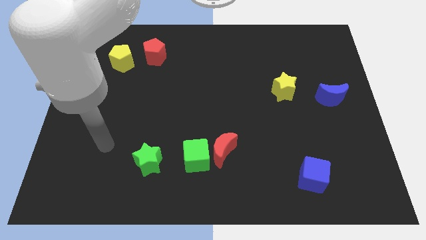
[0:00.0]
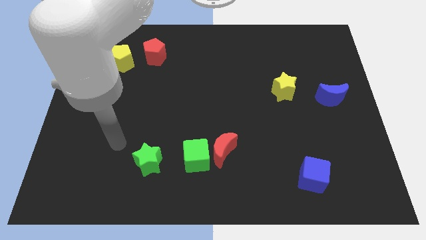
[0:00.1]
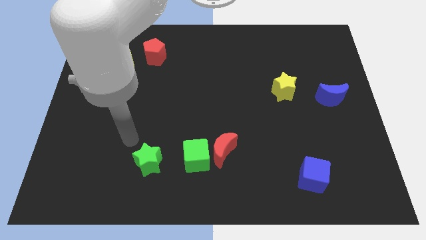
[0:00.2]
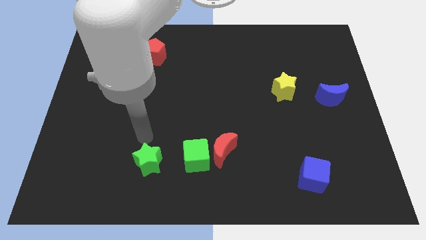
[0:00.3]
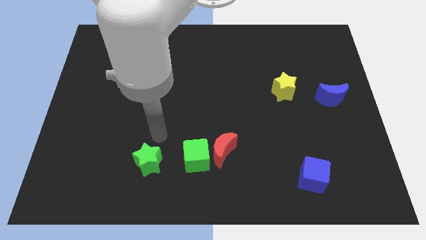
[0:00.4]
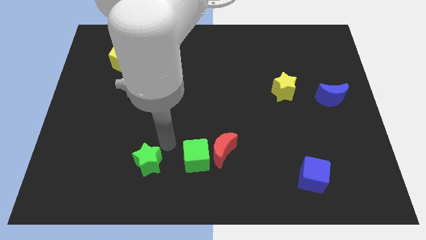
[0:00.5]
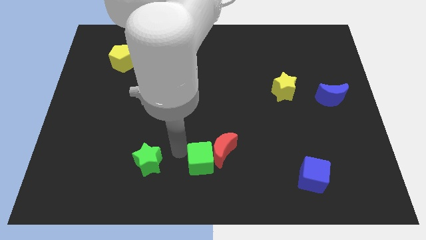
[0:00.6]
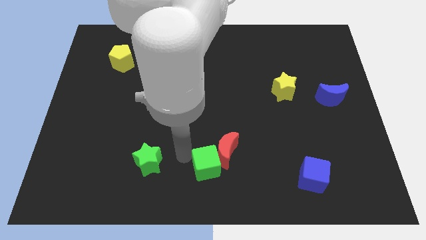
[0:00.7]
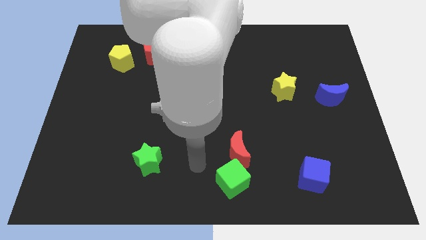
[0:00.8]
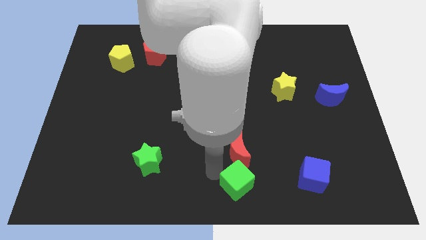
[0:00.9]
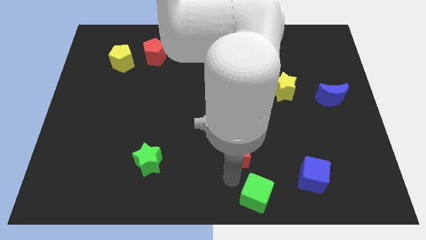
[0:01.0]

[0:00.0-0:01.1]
pull the red moon apart from the green cube

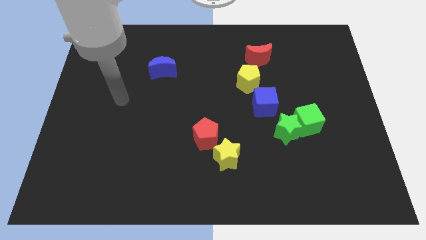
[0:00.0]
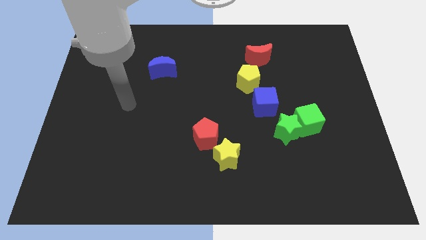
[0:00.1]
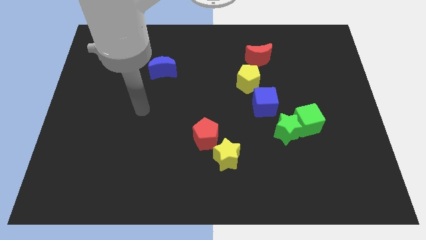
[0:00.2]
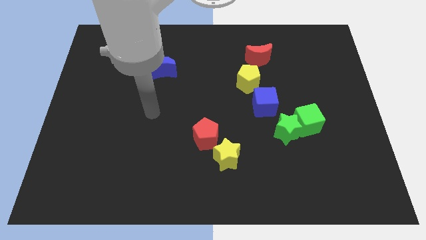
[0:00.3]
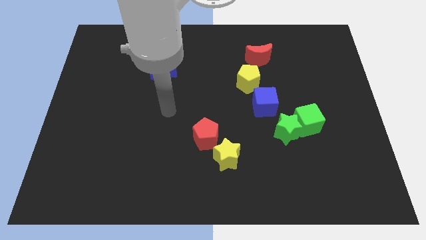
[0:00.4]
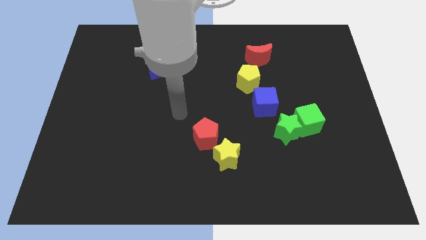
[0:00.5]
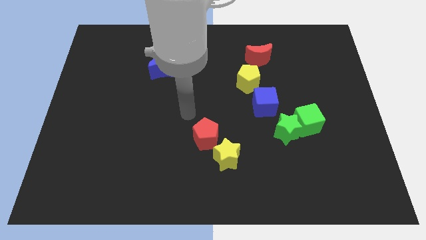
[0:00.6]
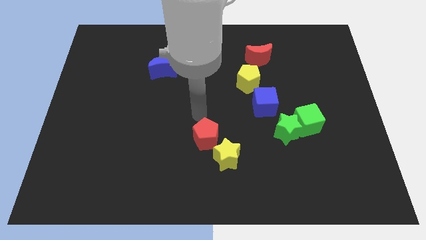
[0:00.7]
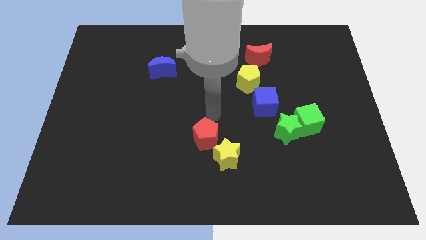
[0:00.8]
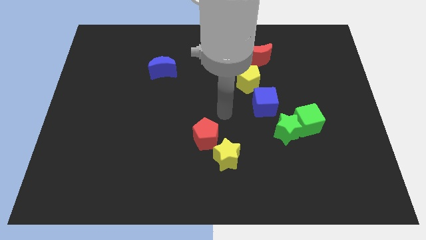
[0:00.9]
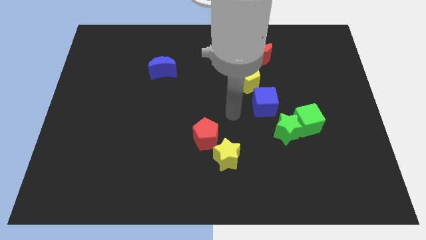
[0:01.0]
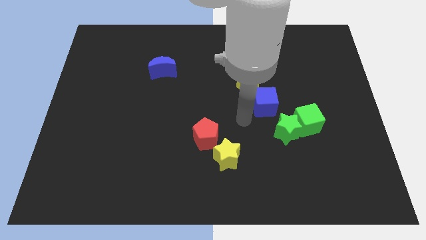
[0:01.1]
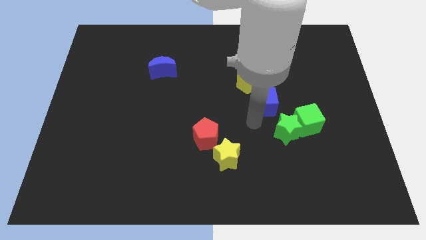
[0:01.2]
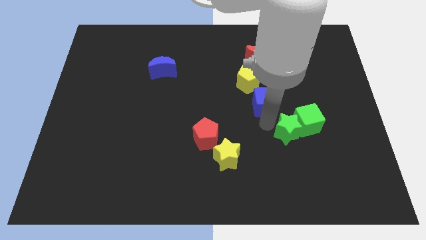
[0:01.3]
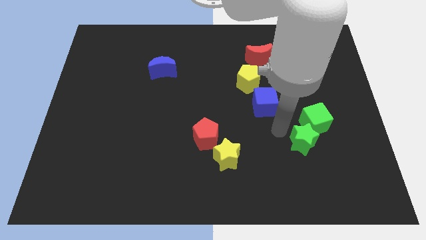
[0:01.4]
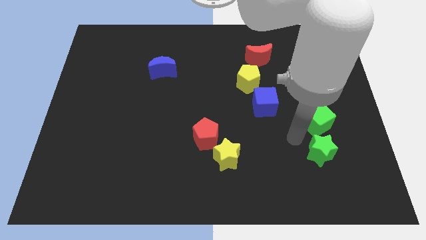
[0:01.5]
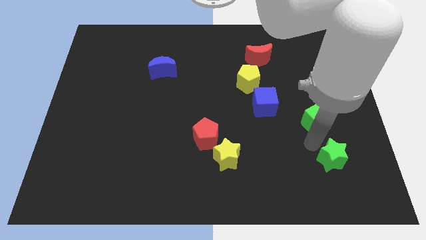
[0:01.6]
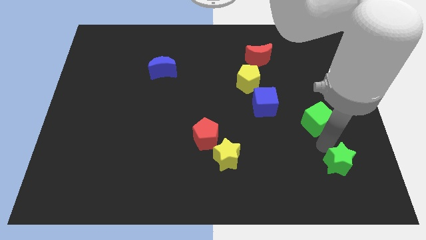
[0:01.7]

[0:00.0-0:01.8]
separate the green cube from the green star

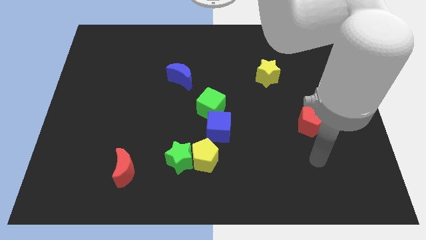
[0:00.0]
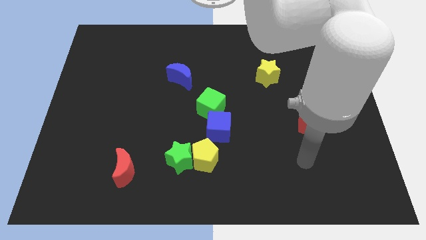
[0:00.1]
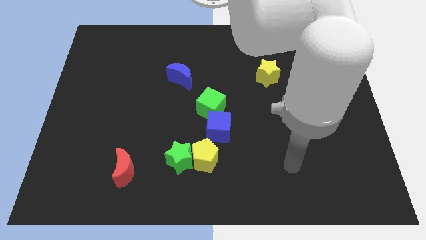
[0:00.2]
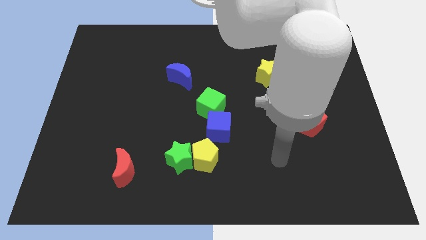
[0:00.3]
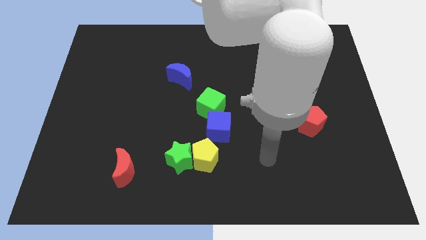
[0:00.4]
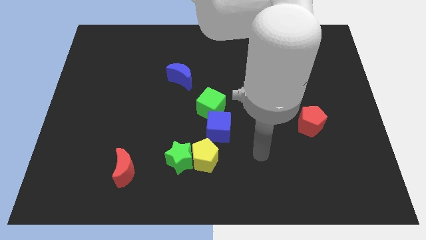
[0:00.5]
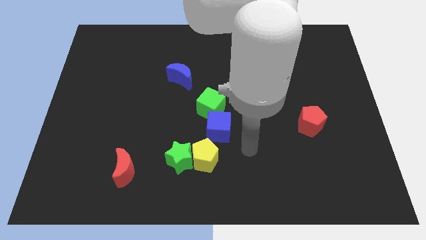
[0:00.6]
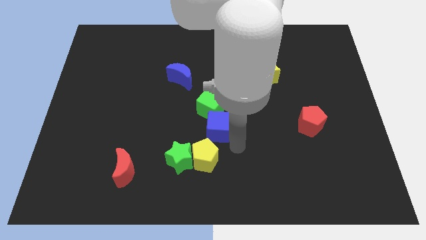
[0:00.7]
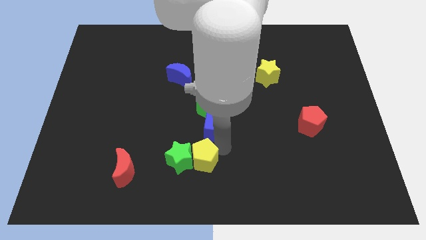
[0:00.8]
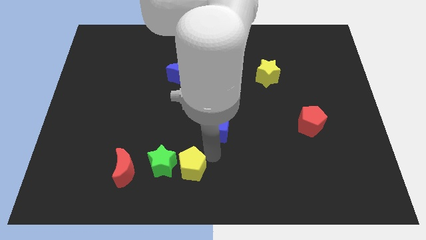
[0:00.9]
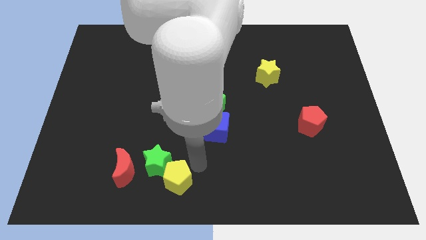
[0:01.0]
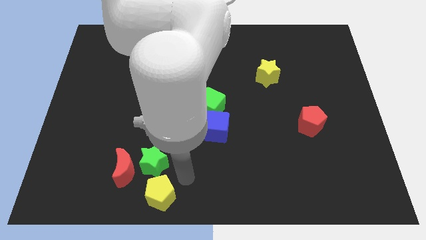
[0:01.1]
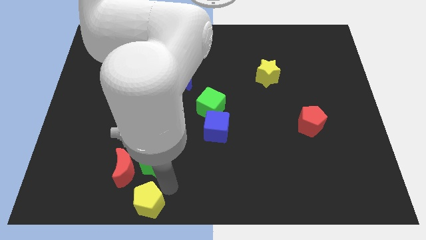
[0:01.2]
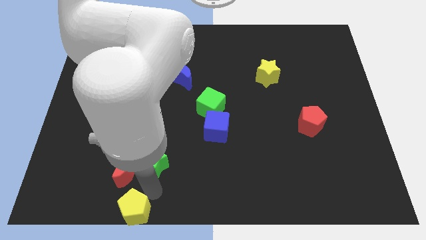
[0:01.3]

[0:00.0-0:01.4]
pull the green star apart from the yellow pentagon

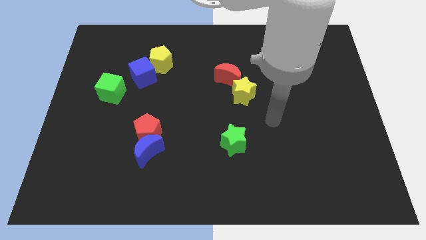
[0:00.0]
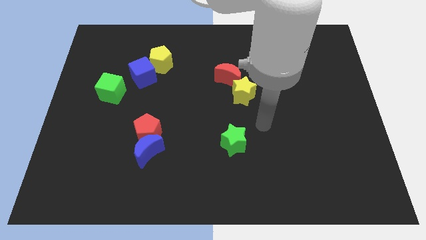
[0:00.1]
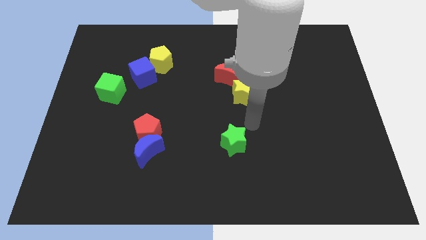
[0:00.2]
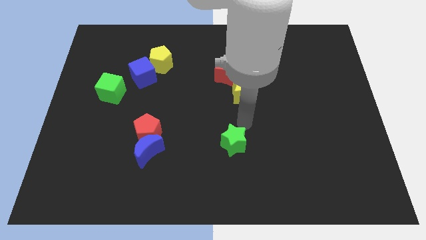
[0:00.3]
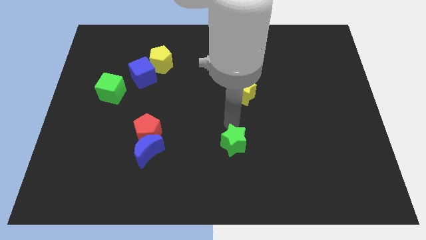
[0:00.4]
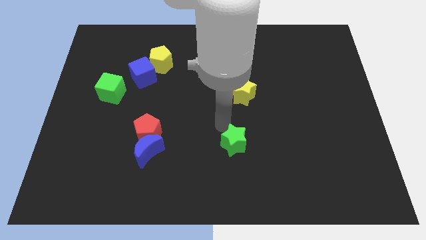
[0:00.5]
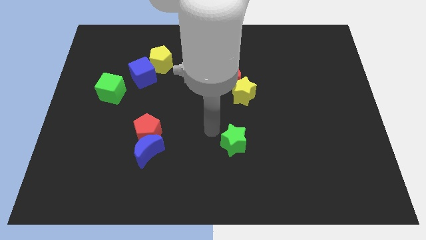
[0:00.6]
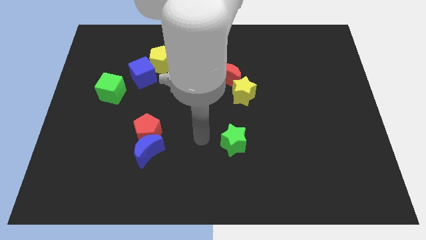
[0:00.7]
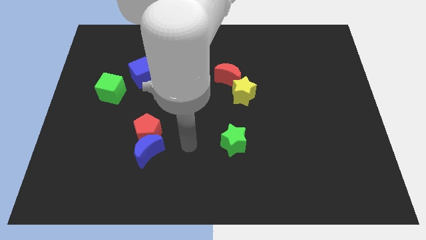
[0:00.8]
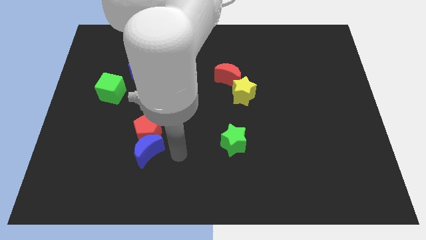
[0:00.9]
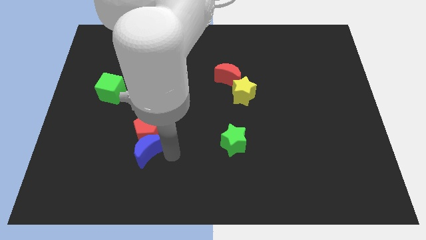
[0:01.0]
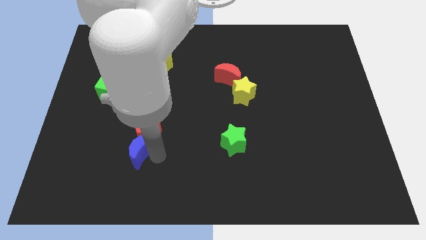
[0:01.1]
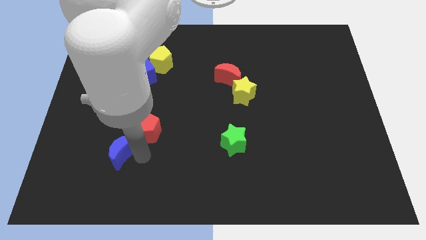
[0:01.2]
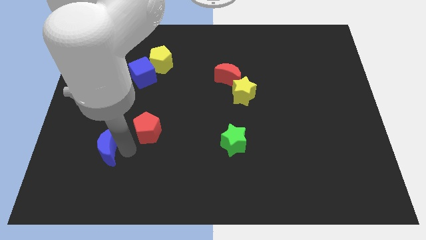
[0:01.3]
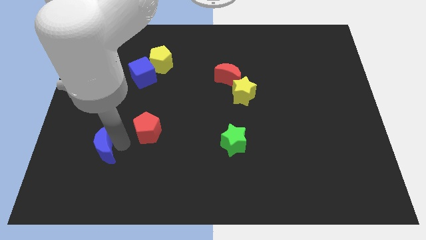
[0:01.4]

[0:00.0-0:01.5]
separate the red pentagon from the blue moon

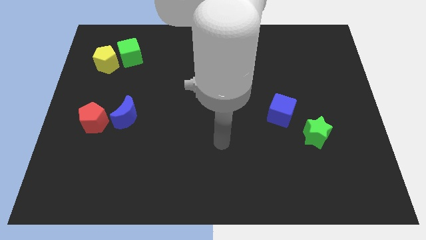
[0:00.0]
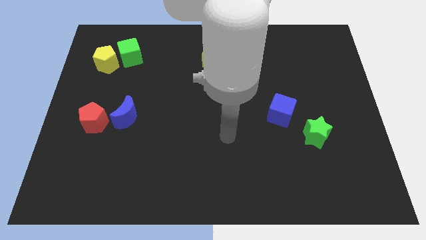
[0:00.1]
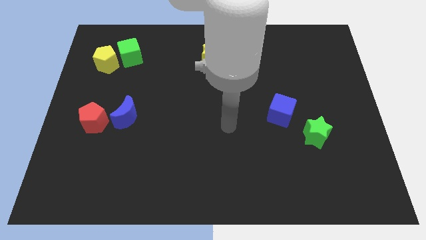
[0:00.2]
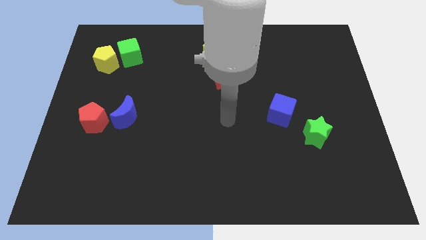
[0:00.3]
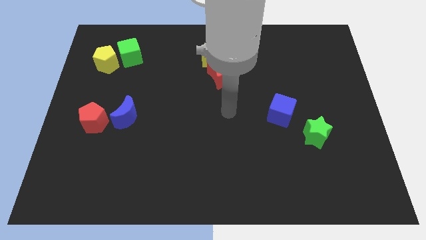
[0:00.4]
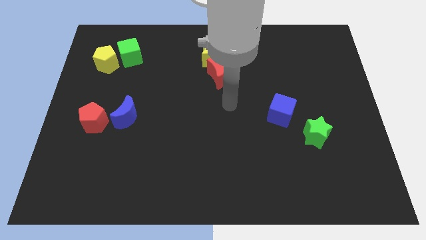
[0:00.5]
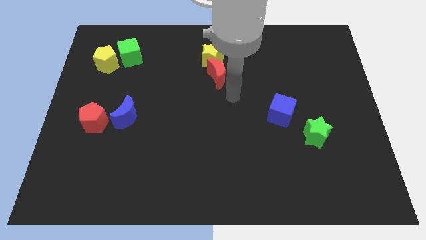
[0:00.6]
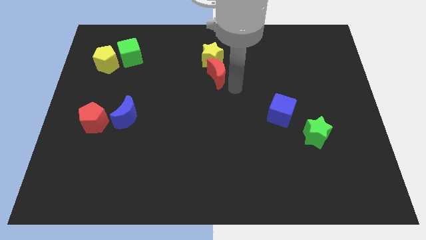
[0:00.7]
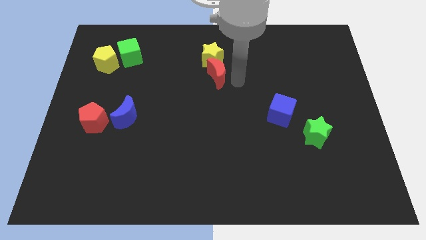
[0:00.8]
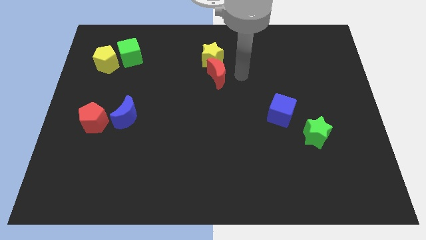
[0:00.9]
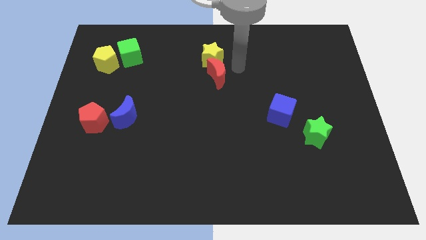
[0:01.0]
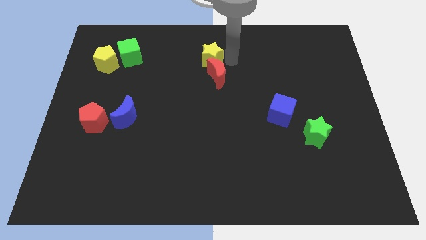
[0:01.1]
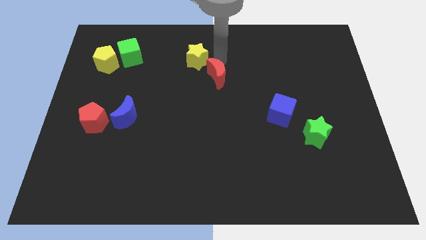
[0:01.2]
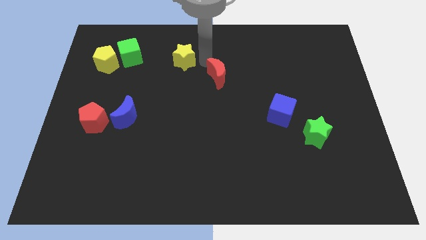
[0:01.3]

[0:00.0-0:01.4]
pull the red moon apart from the yellow star

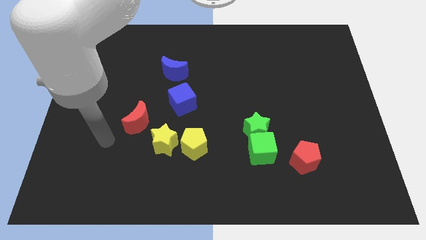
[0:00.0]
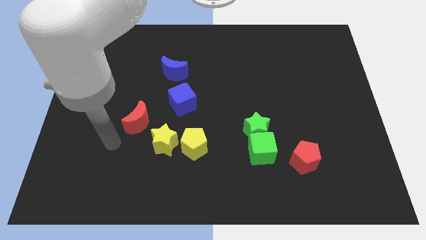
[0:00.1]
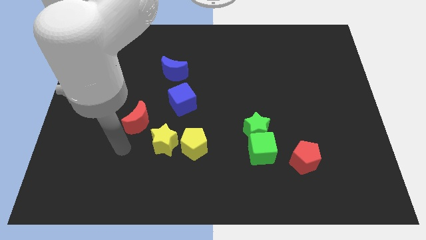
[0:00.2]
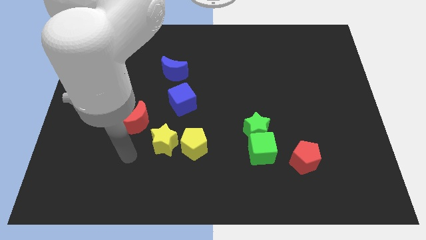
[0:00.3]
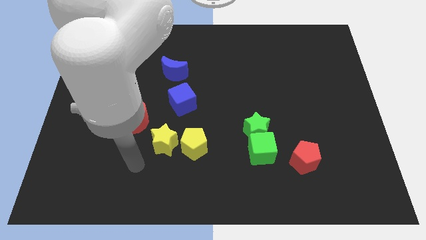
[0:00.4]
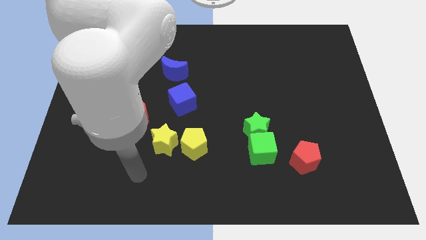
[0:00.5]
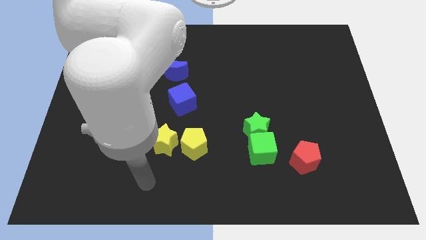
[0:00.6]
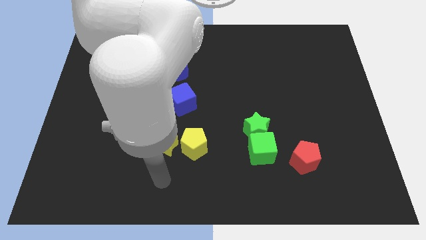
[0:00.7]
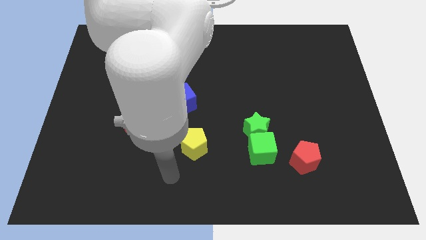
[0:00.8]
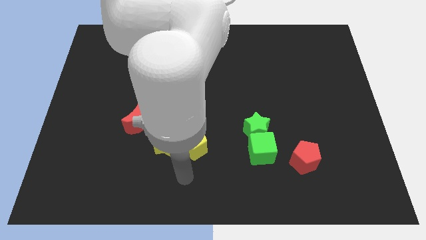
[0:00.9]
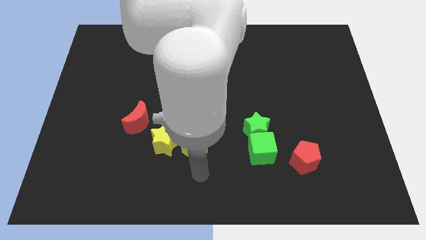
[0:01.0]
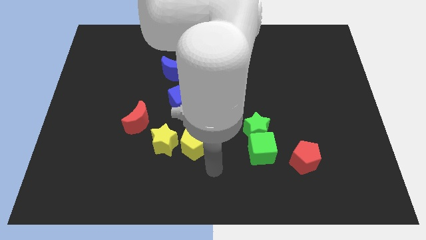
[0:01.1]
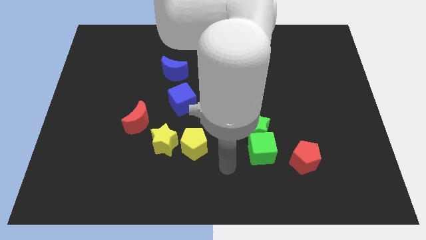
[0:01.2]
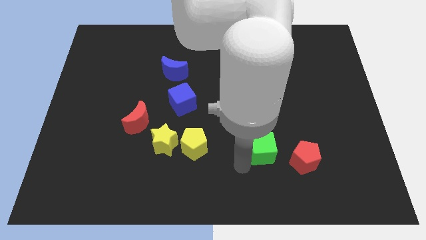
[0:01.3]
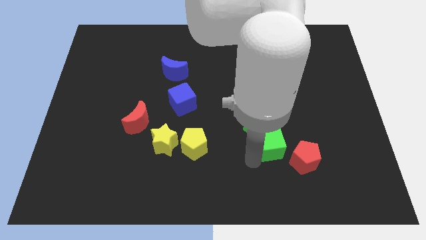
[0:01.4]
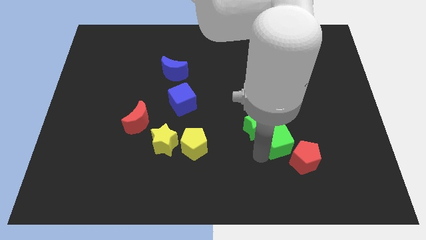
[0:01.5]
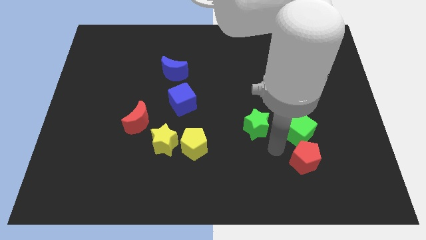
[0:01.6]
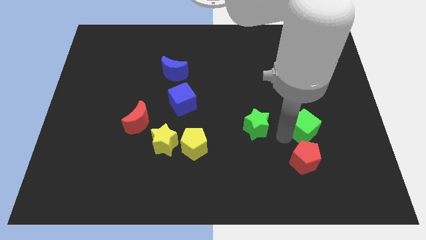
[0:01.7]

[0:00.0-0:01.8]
move the green star away from the green cube

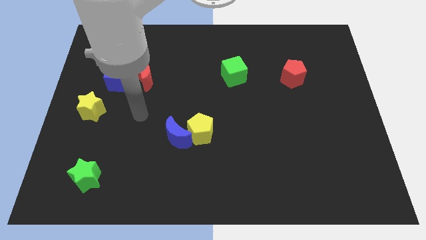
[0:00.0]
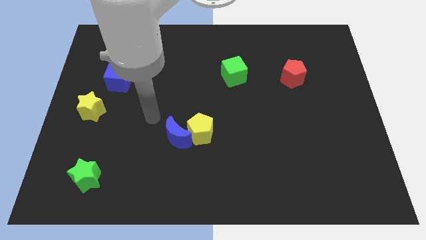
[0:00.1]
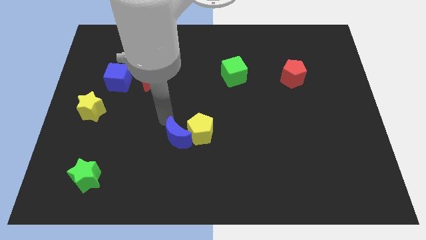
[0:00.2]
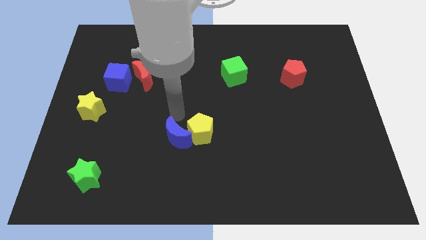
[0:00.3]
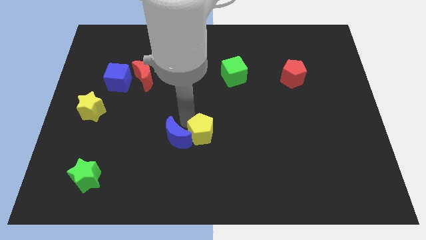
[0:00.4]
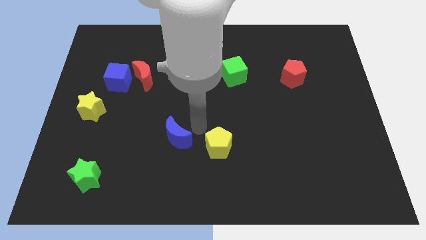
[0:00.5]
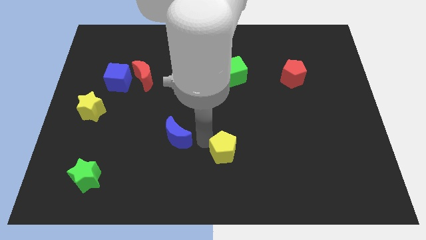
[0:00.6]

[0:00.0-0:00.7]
move the blue moon away from the yellow pentagon
